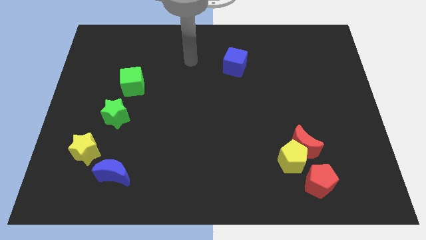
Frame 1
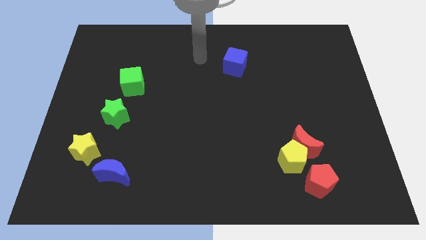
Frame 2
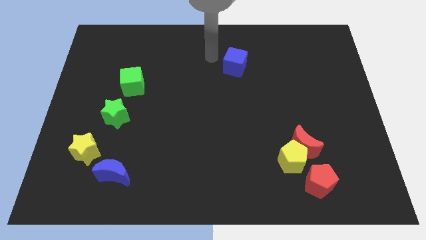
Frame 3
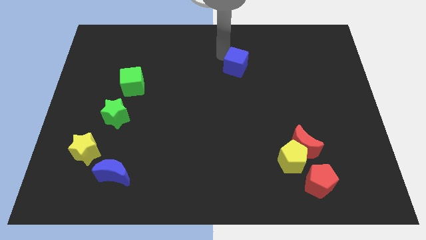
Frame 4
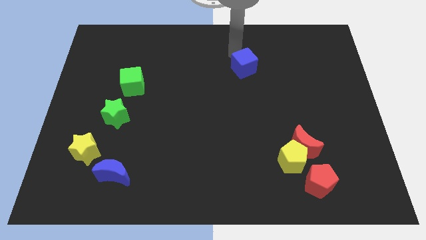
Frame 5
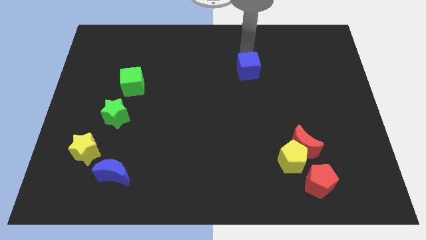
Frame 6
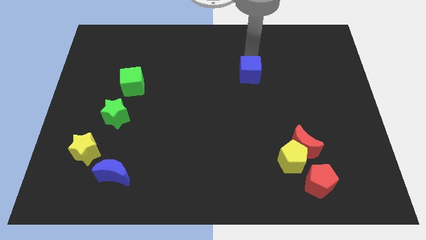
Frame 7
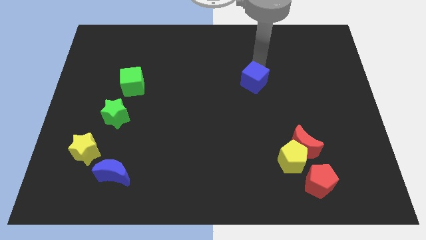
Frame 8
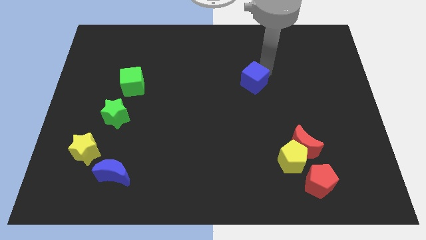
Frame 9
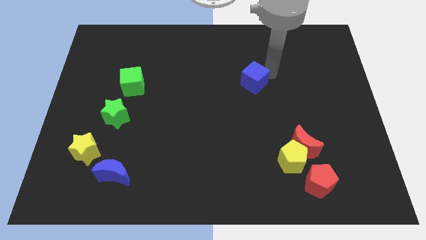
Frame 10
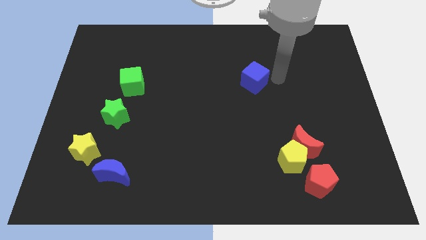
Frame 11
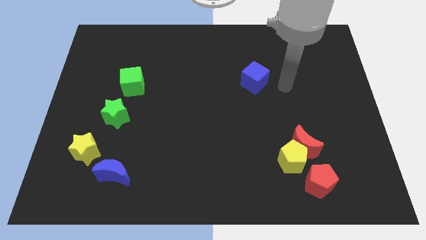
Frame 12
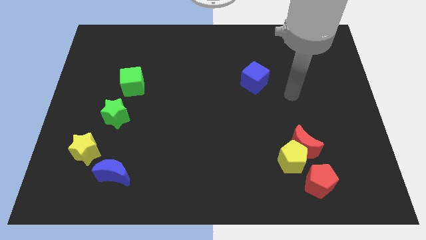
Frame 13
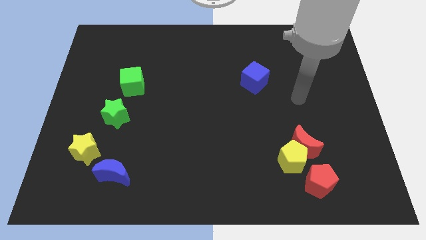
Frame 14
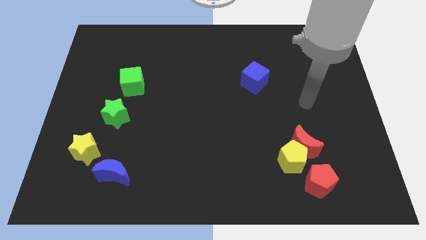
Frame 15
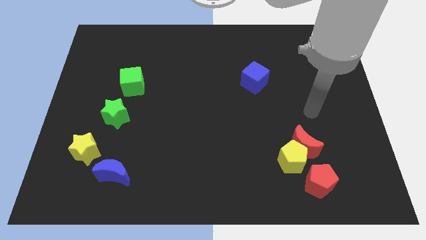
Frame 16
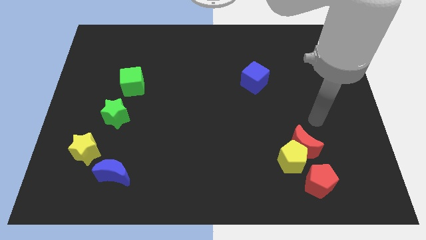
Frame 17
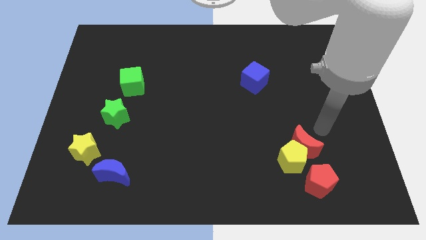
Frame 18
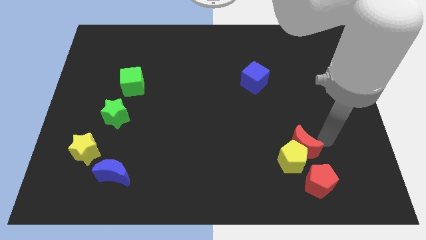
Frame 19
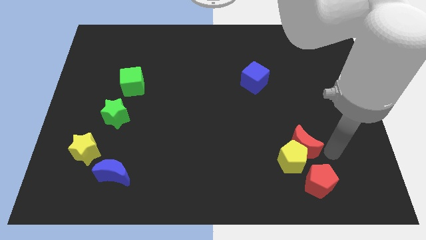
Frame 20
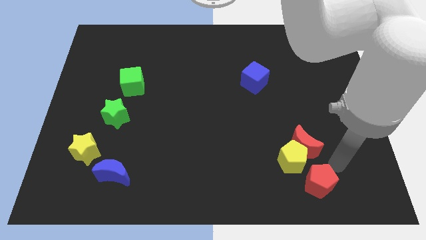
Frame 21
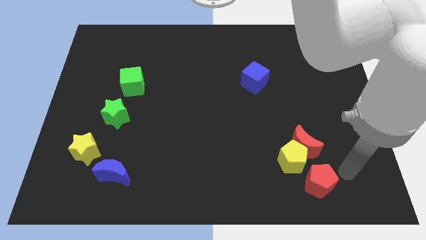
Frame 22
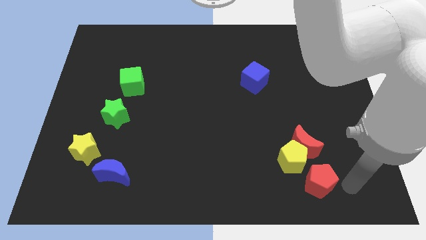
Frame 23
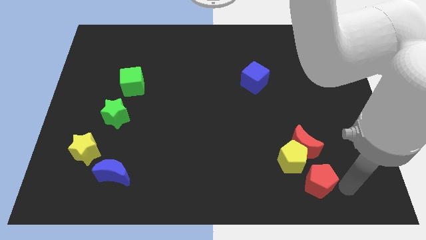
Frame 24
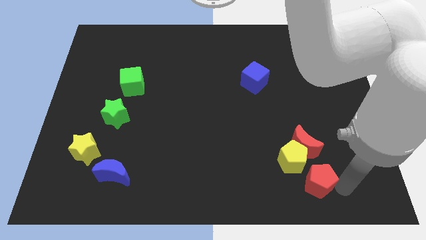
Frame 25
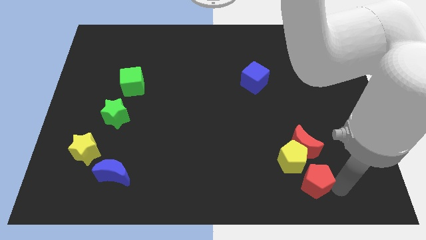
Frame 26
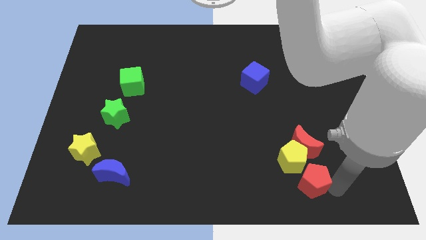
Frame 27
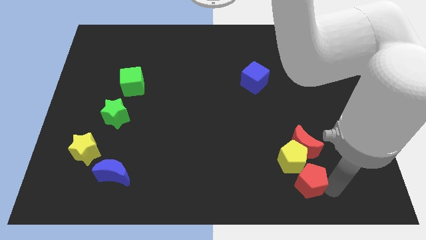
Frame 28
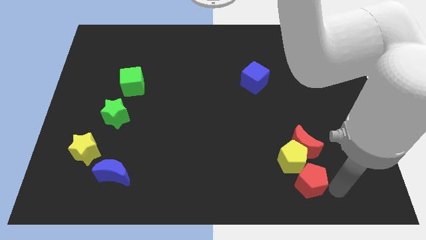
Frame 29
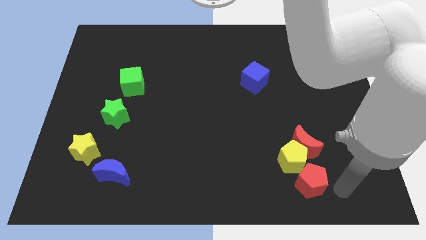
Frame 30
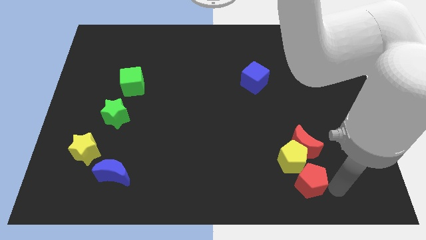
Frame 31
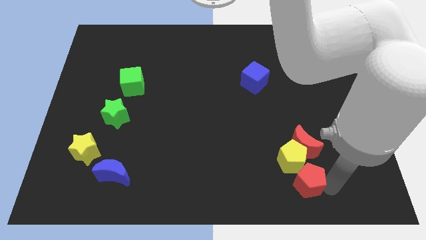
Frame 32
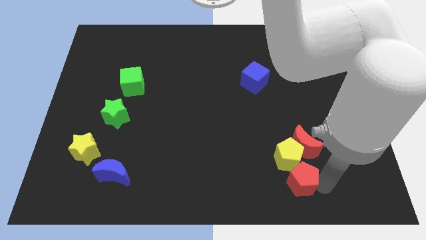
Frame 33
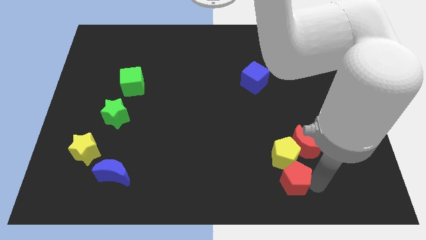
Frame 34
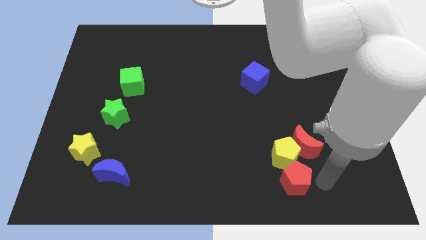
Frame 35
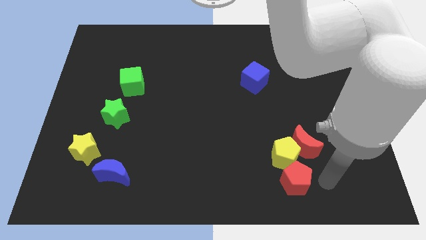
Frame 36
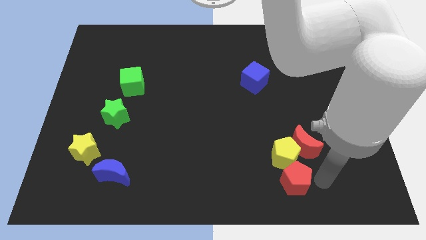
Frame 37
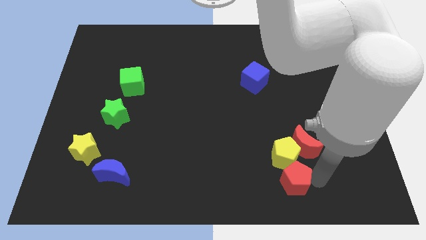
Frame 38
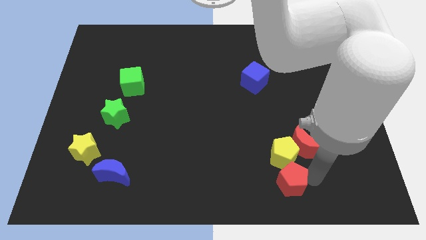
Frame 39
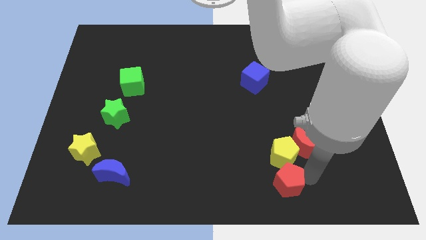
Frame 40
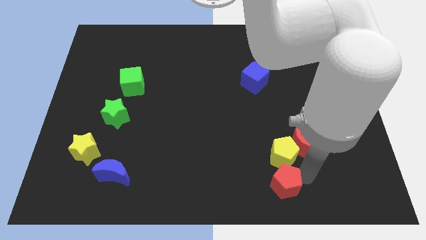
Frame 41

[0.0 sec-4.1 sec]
push the red pentagon somewhat left

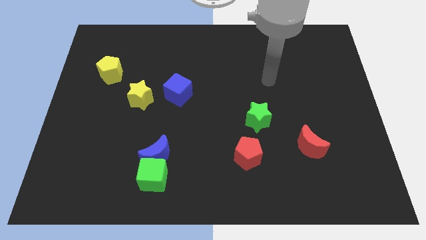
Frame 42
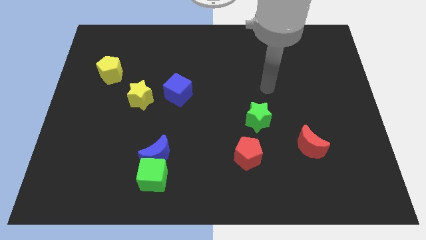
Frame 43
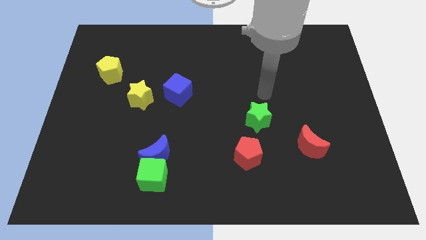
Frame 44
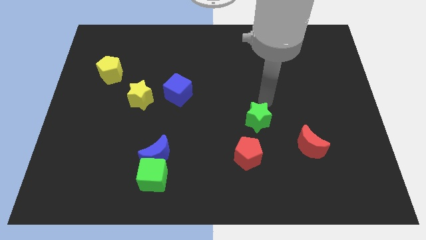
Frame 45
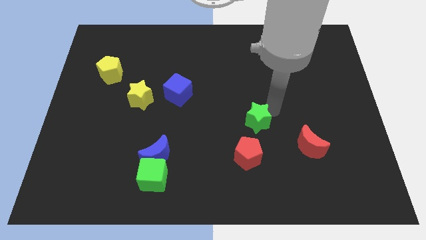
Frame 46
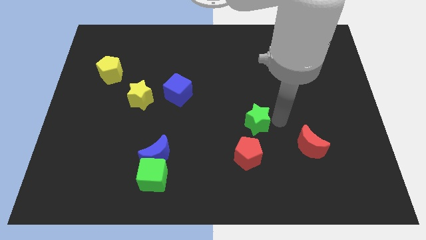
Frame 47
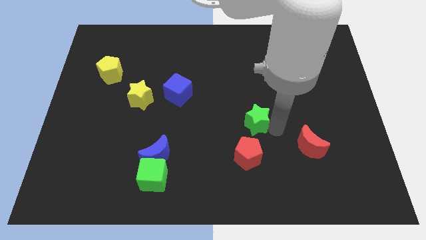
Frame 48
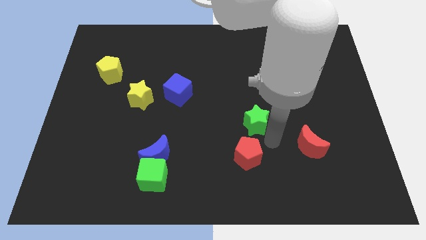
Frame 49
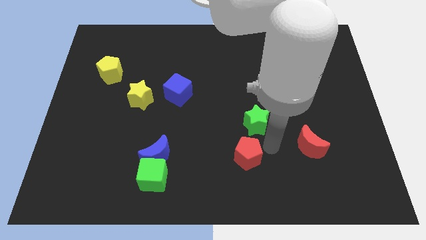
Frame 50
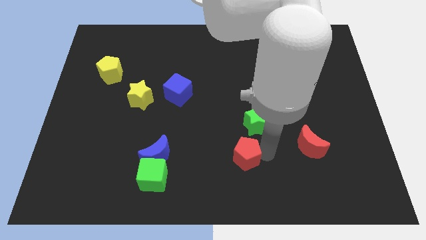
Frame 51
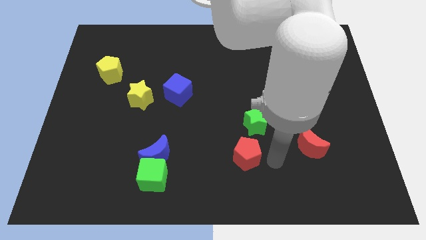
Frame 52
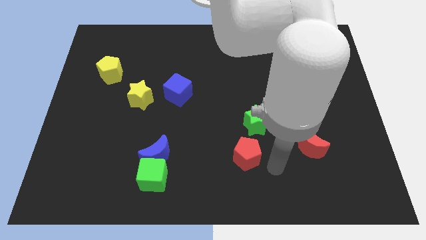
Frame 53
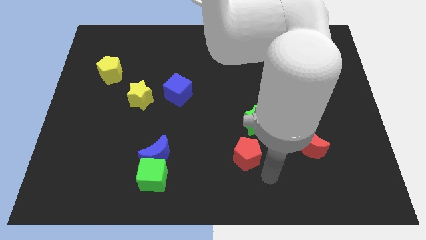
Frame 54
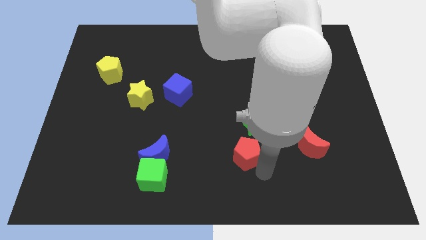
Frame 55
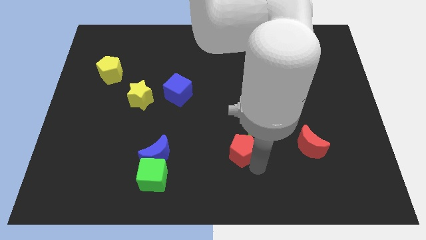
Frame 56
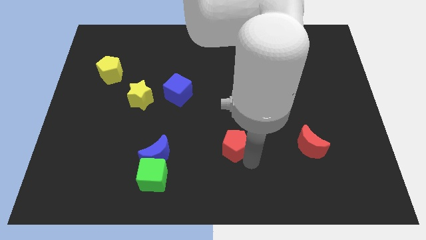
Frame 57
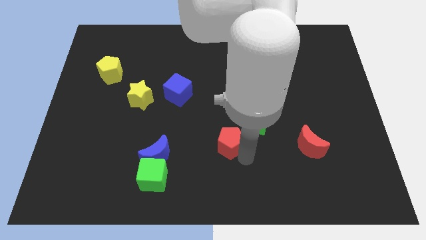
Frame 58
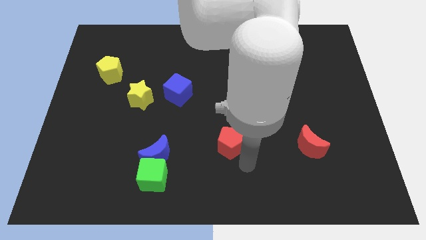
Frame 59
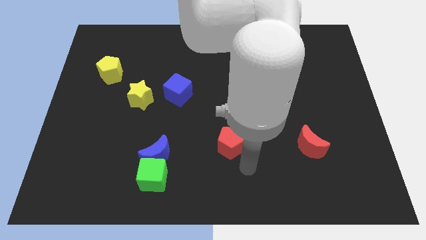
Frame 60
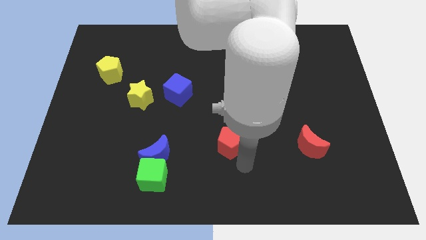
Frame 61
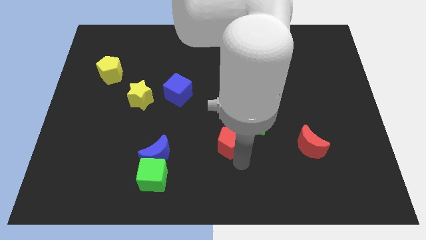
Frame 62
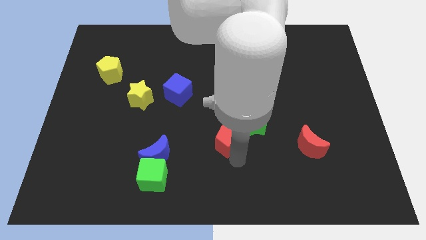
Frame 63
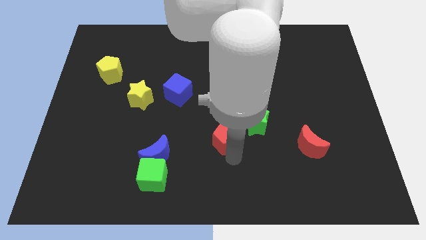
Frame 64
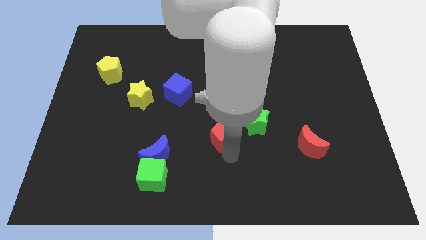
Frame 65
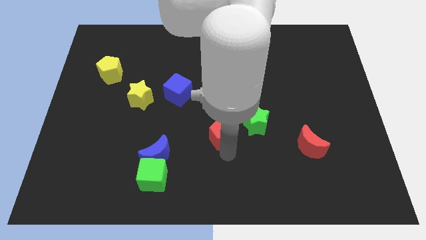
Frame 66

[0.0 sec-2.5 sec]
push the red pentagon a little bit upwards and to the left

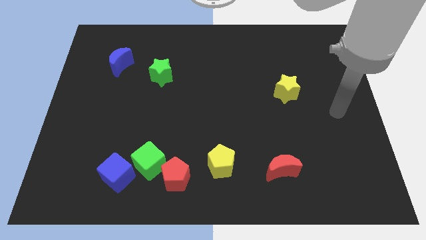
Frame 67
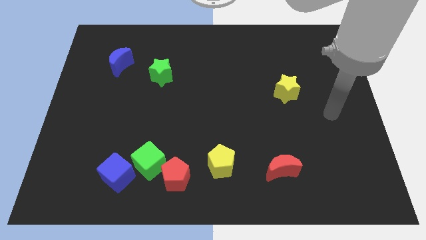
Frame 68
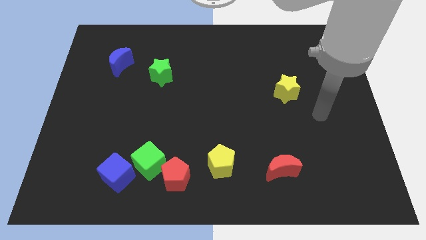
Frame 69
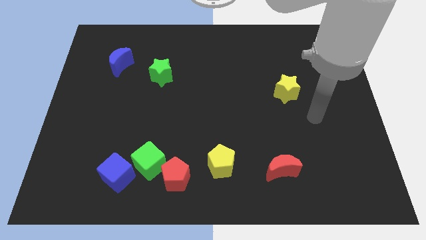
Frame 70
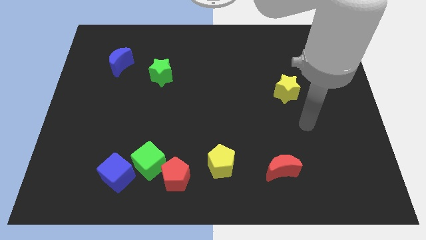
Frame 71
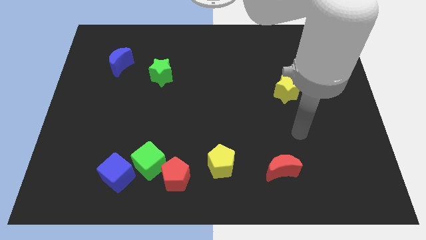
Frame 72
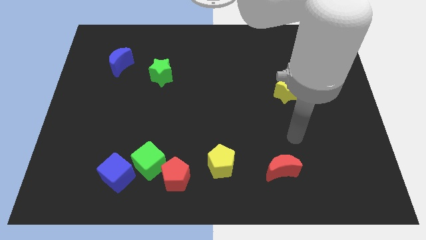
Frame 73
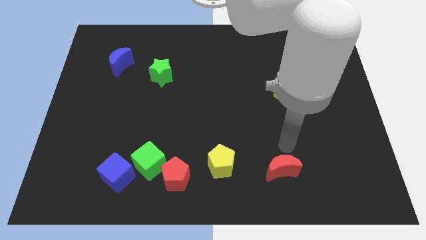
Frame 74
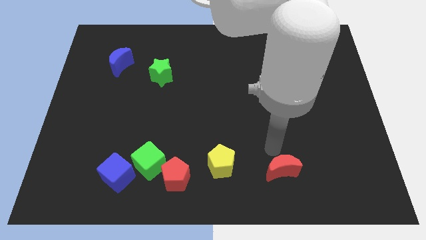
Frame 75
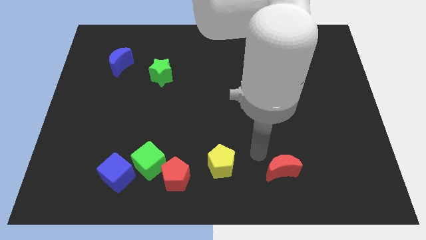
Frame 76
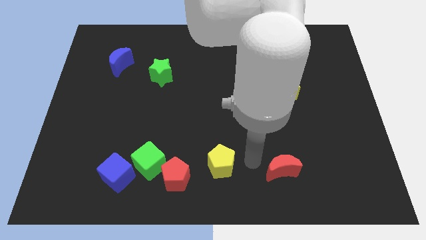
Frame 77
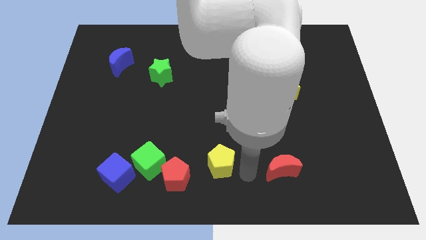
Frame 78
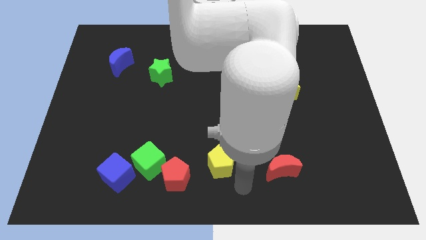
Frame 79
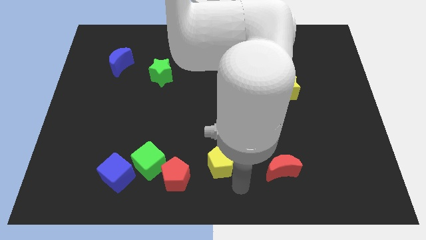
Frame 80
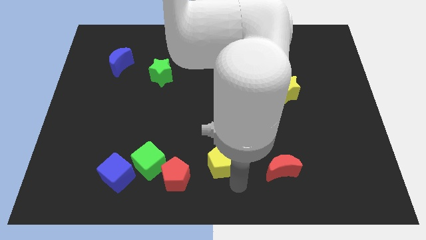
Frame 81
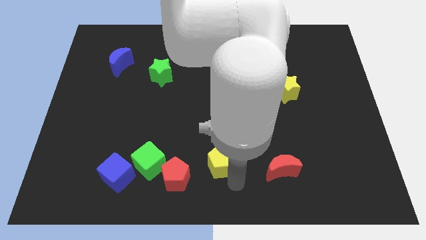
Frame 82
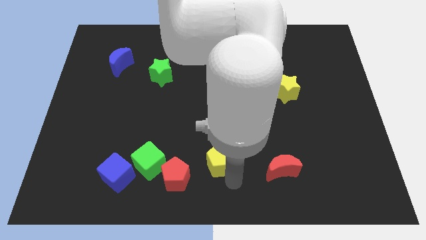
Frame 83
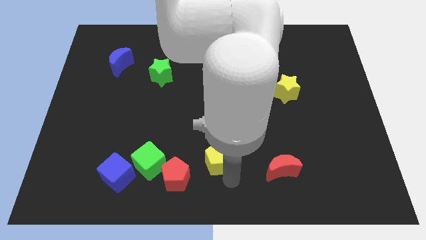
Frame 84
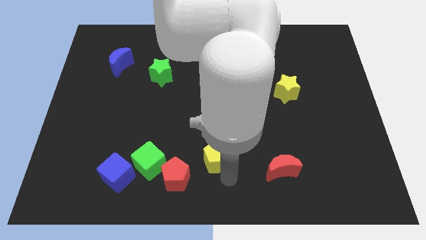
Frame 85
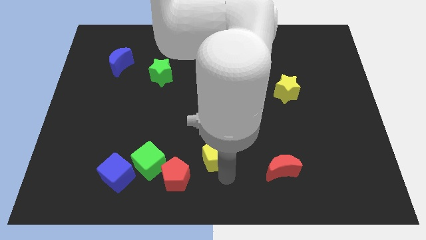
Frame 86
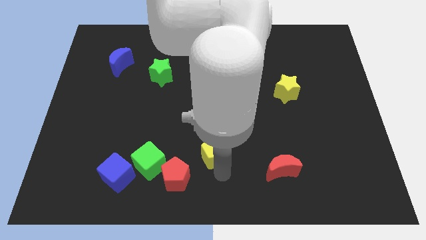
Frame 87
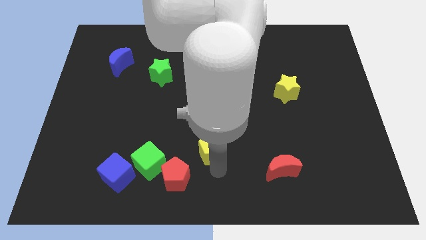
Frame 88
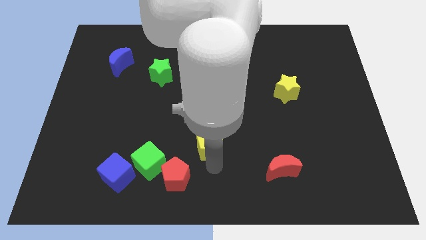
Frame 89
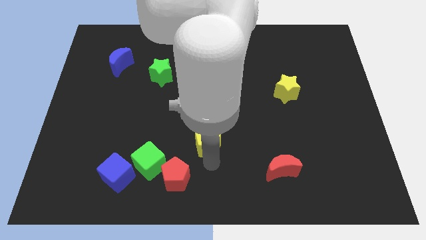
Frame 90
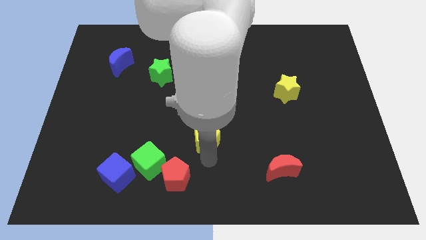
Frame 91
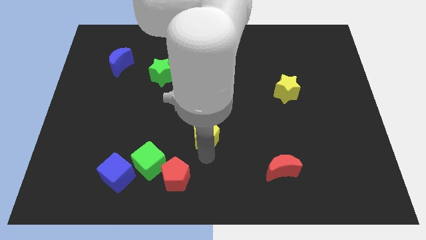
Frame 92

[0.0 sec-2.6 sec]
push the yellow pentagon a little bit diagonally up and to the left
